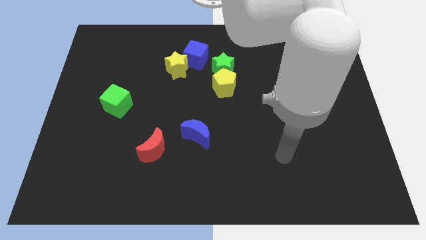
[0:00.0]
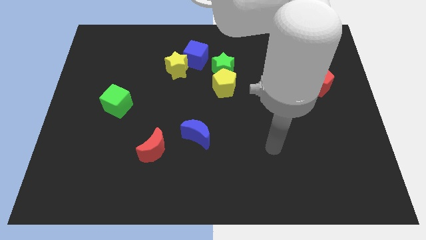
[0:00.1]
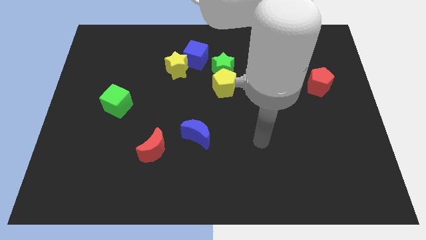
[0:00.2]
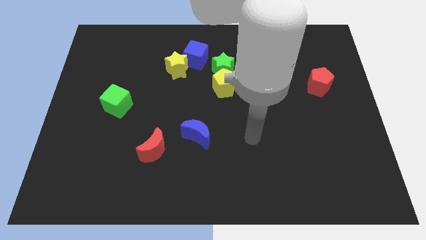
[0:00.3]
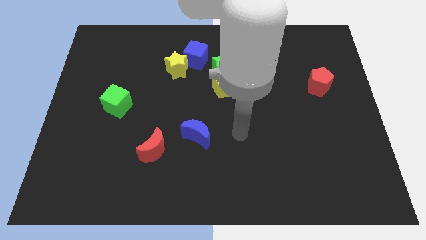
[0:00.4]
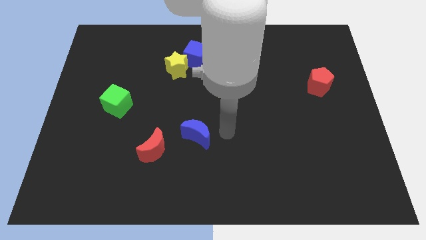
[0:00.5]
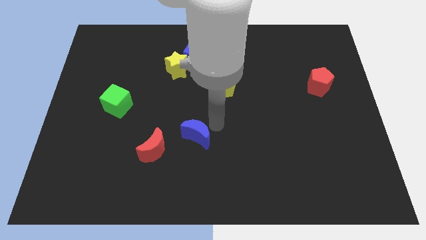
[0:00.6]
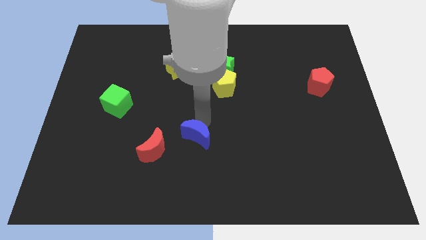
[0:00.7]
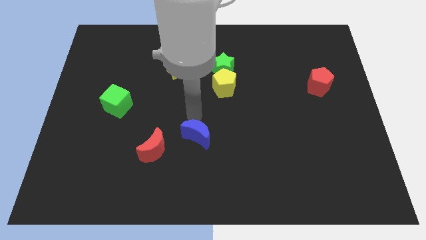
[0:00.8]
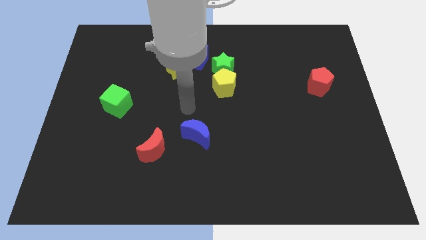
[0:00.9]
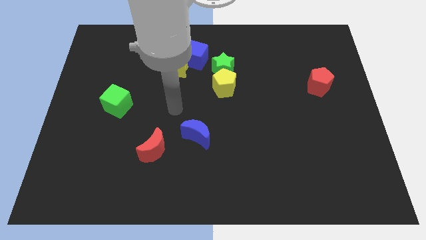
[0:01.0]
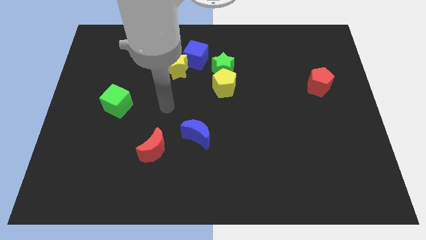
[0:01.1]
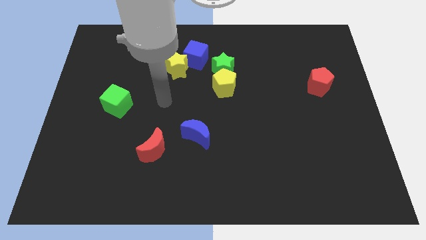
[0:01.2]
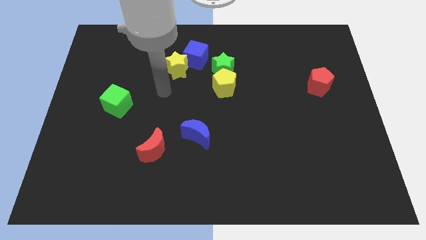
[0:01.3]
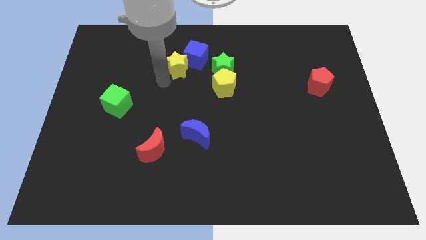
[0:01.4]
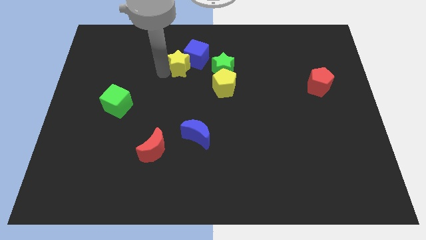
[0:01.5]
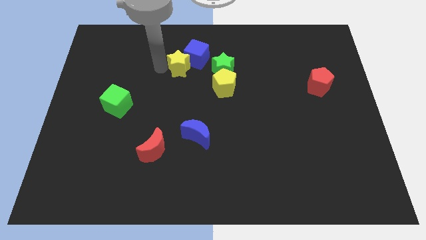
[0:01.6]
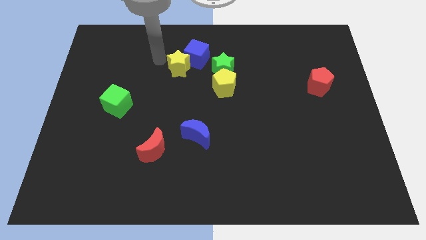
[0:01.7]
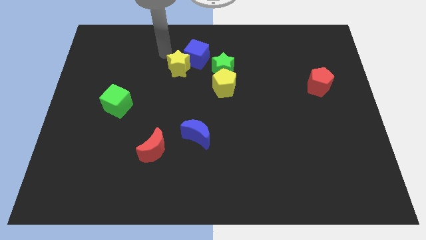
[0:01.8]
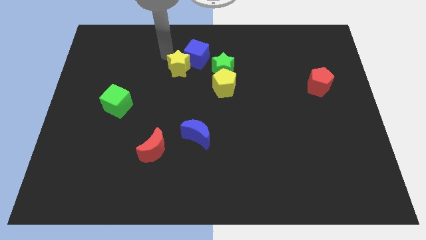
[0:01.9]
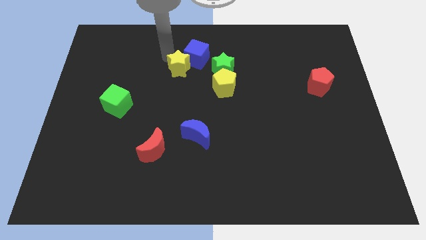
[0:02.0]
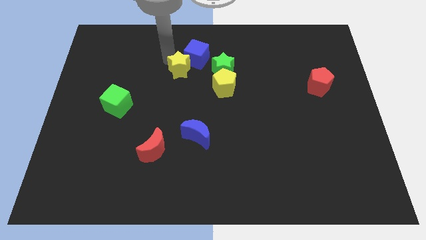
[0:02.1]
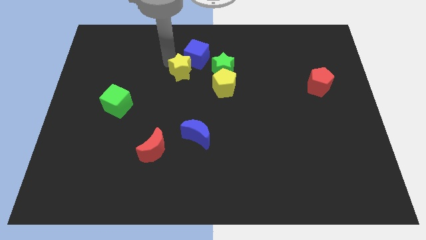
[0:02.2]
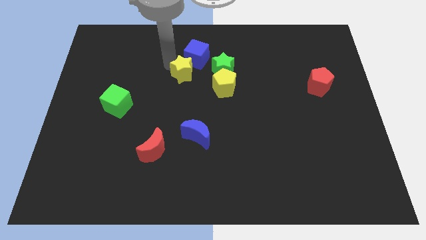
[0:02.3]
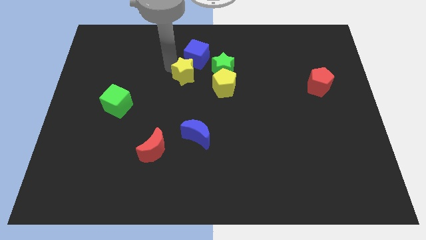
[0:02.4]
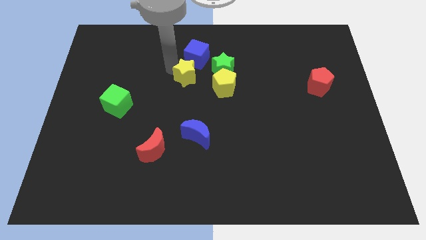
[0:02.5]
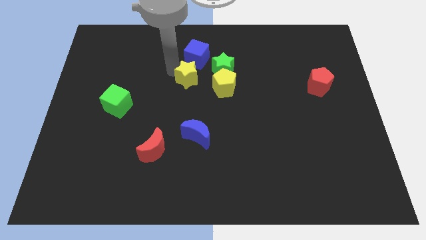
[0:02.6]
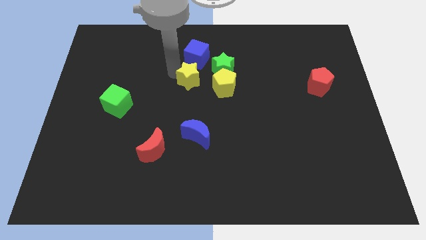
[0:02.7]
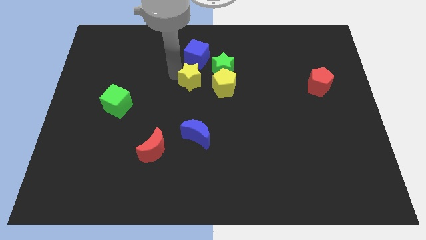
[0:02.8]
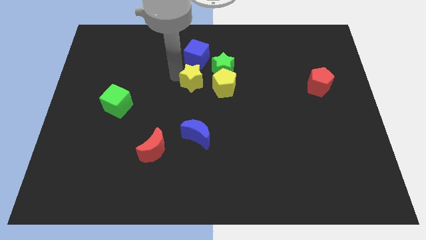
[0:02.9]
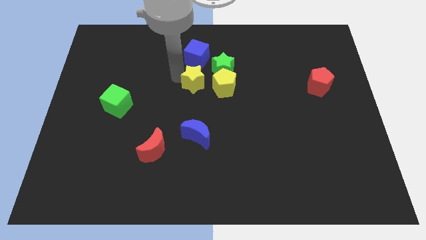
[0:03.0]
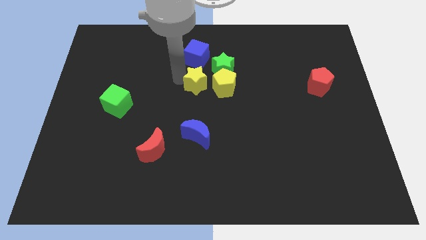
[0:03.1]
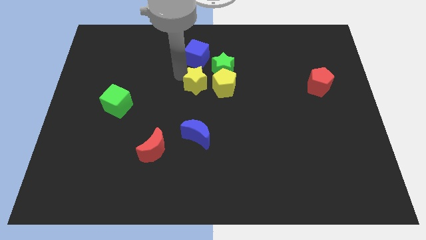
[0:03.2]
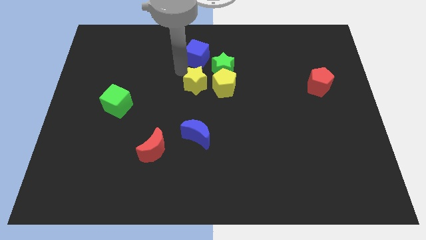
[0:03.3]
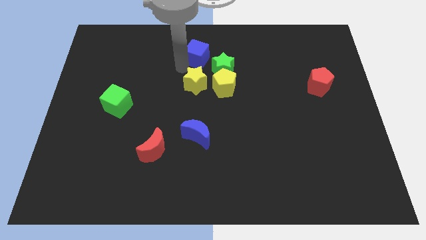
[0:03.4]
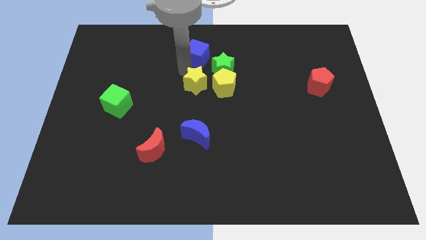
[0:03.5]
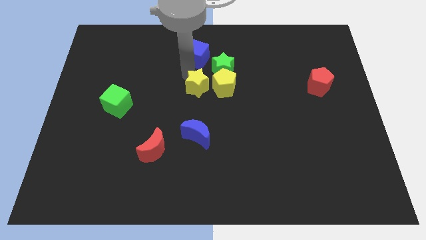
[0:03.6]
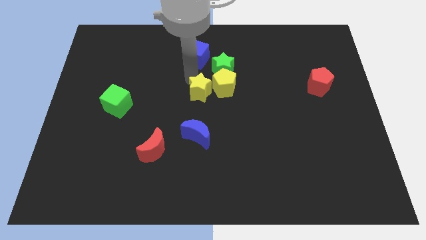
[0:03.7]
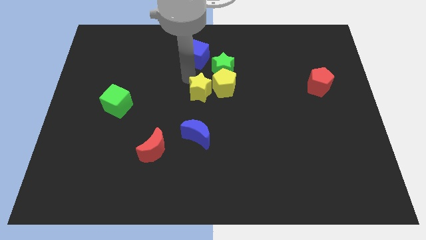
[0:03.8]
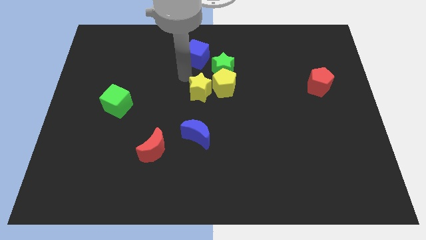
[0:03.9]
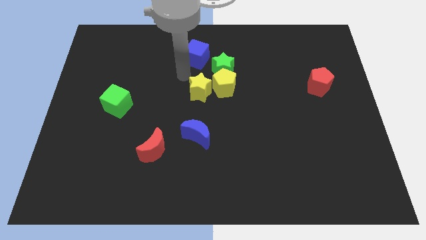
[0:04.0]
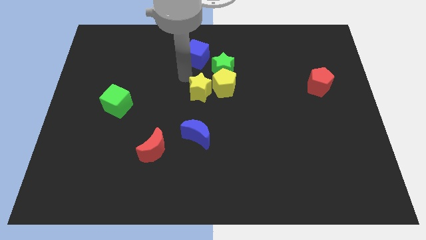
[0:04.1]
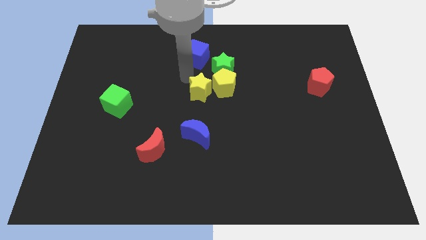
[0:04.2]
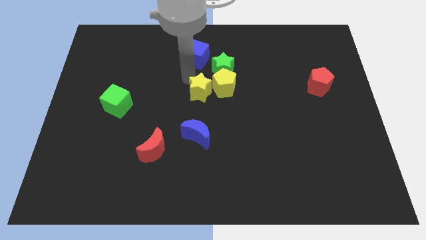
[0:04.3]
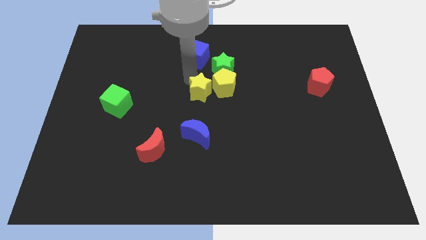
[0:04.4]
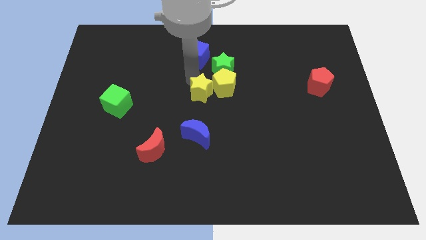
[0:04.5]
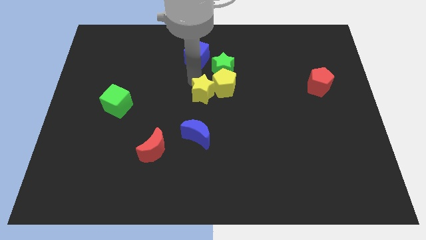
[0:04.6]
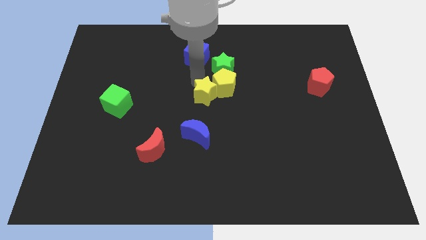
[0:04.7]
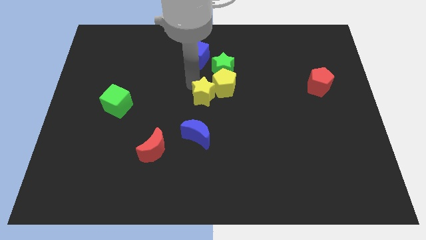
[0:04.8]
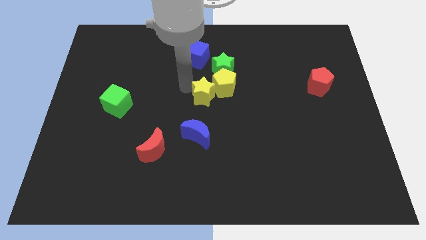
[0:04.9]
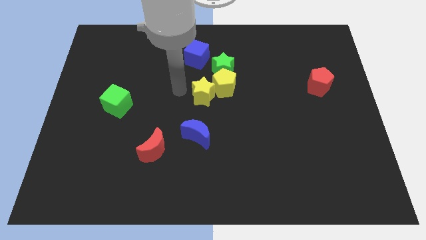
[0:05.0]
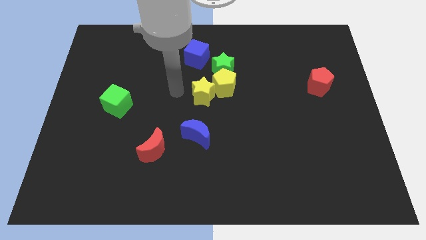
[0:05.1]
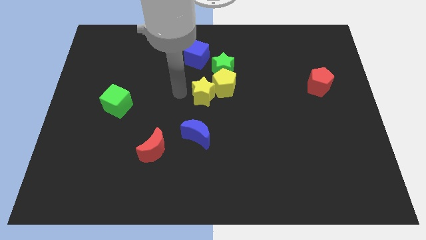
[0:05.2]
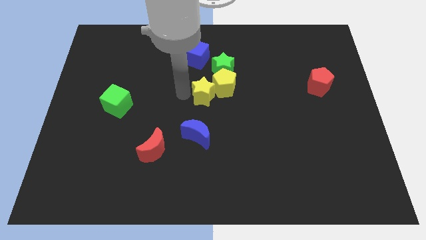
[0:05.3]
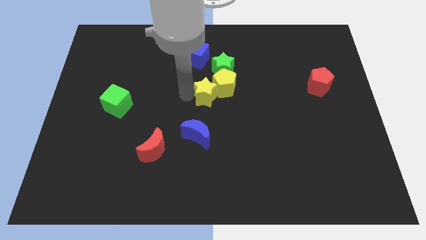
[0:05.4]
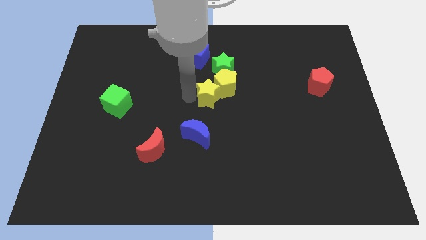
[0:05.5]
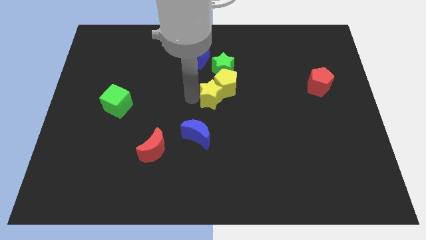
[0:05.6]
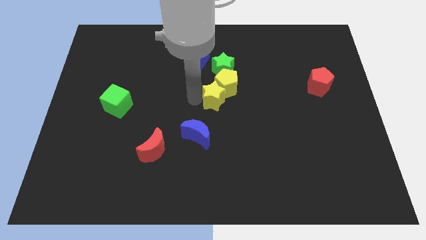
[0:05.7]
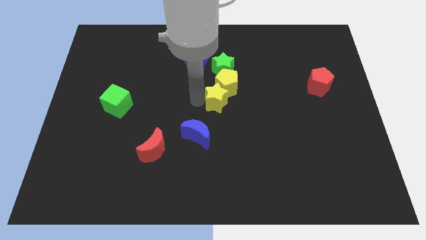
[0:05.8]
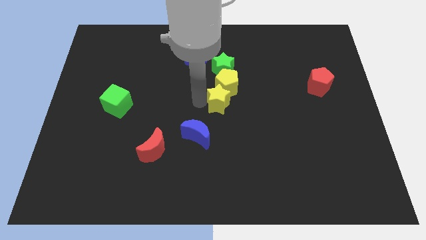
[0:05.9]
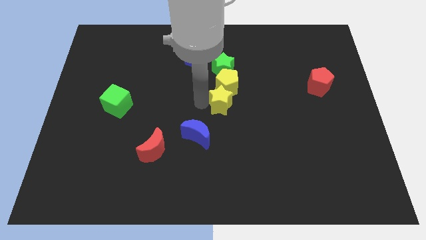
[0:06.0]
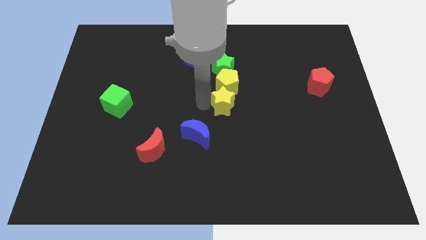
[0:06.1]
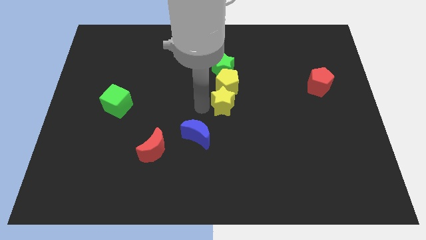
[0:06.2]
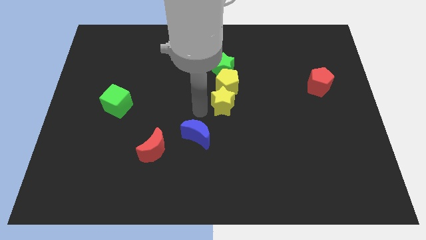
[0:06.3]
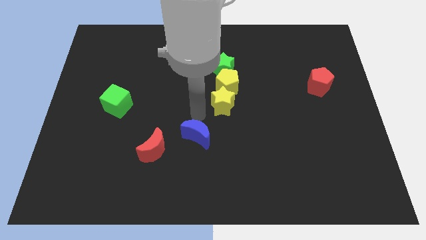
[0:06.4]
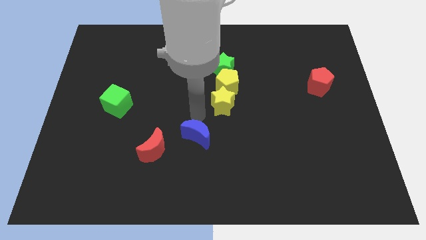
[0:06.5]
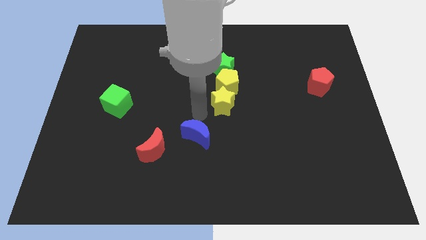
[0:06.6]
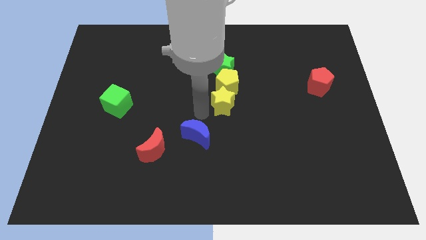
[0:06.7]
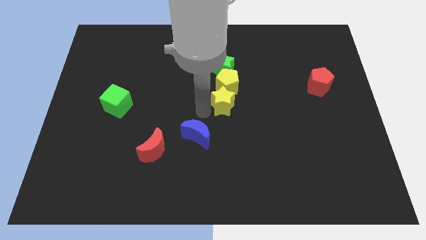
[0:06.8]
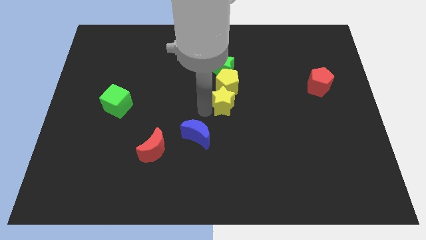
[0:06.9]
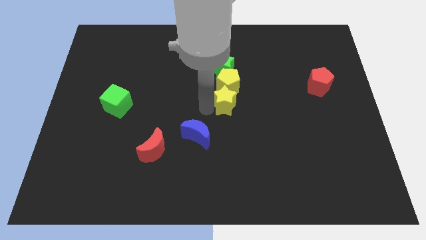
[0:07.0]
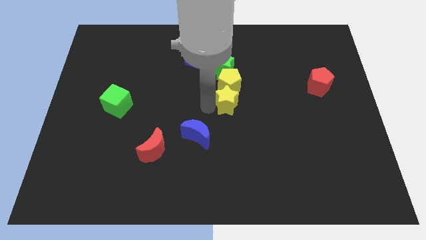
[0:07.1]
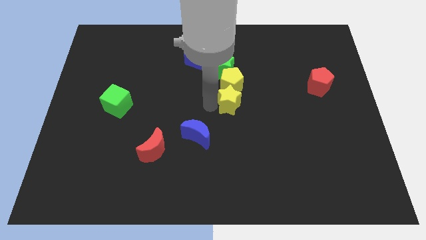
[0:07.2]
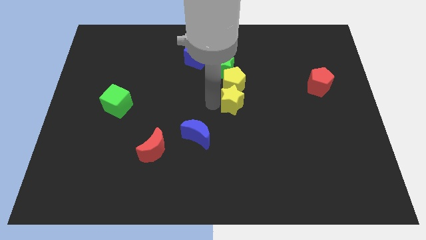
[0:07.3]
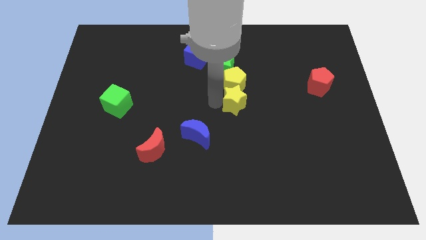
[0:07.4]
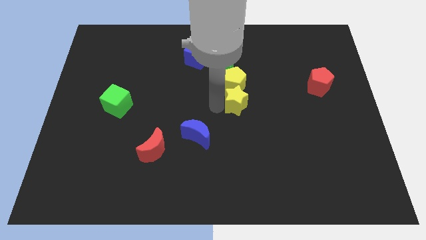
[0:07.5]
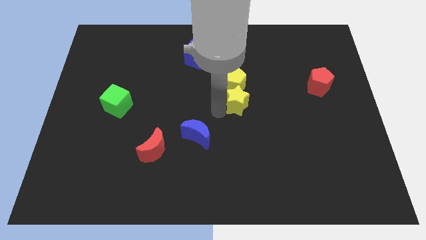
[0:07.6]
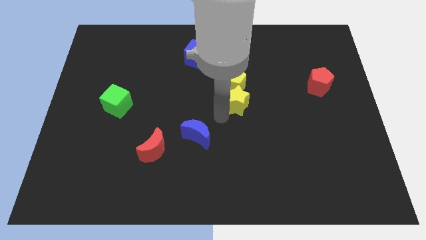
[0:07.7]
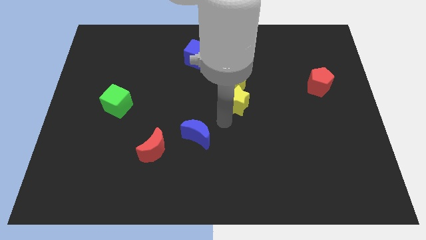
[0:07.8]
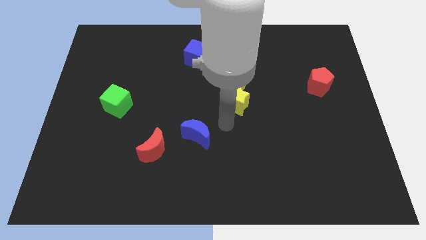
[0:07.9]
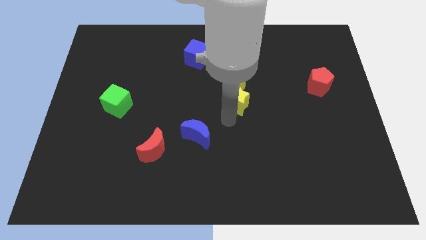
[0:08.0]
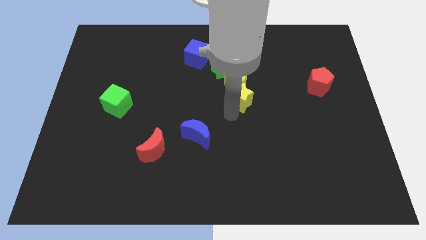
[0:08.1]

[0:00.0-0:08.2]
put the yellow star to the bottom right of the green star
